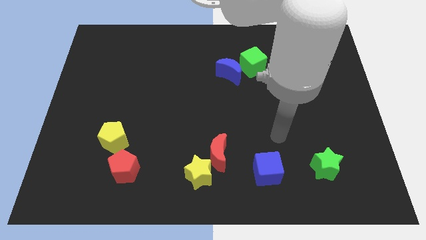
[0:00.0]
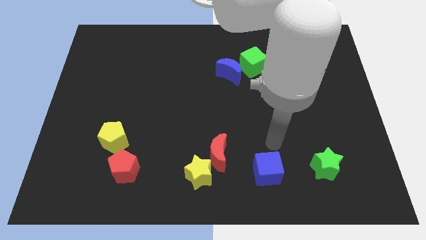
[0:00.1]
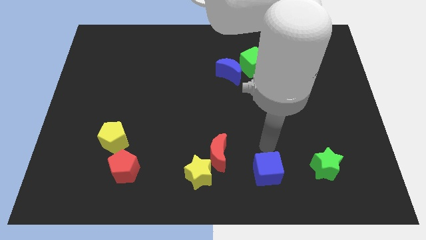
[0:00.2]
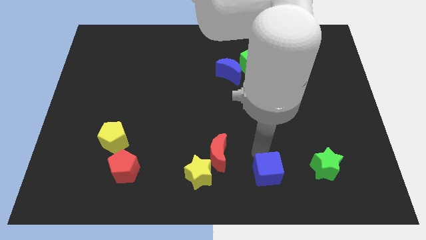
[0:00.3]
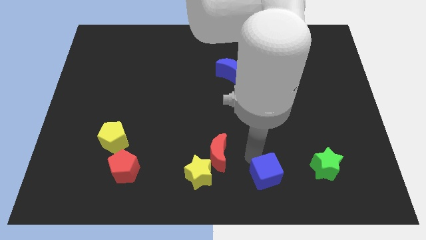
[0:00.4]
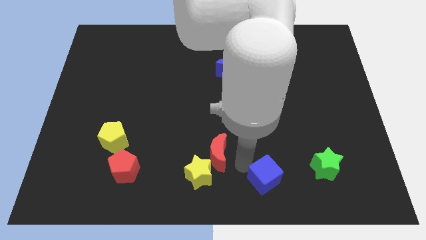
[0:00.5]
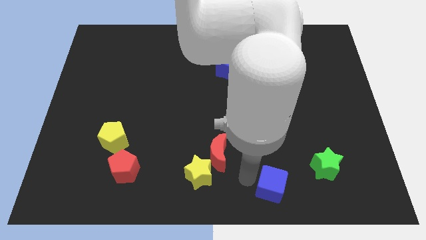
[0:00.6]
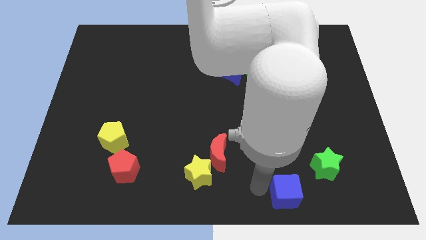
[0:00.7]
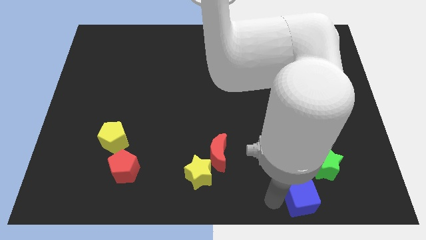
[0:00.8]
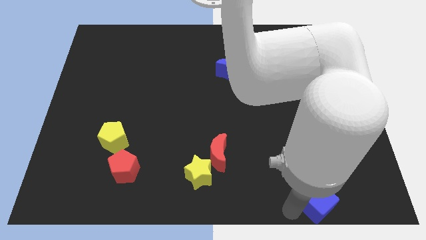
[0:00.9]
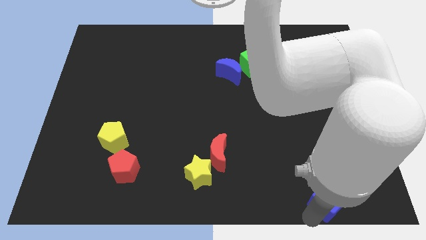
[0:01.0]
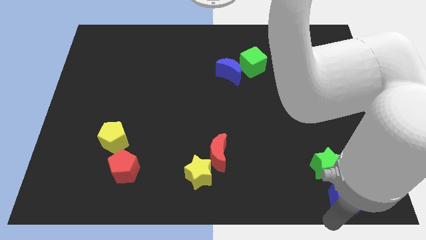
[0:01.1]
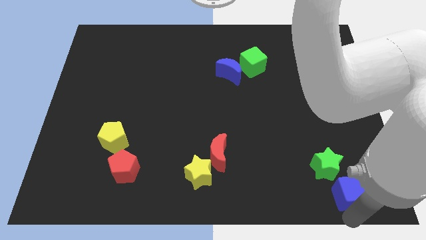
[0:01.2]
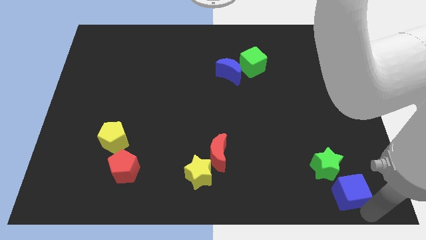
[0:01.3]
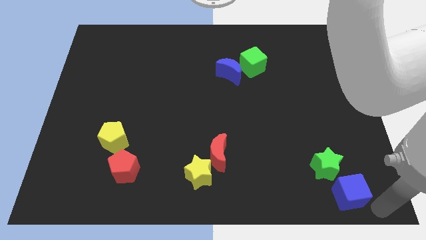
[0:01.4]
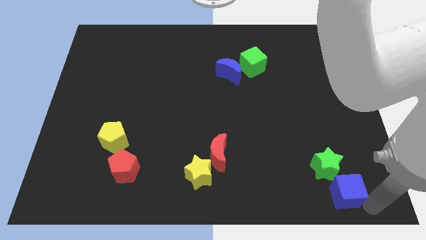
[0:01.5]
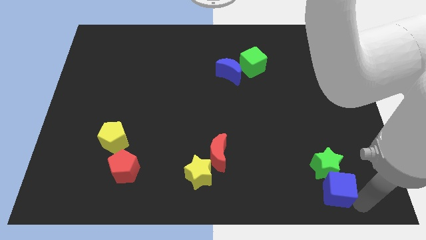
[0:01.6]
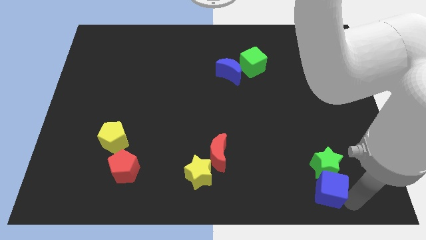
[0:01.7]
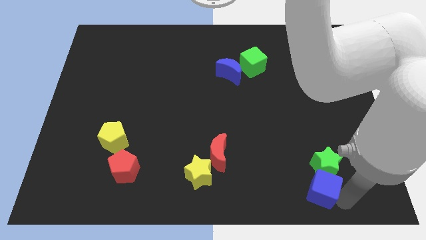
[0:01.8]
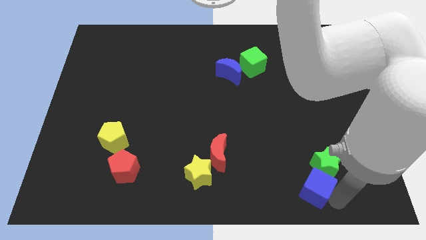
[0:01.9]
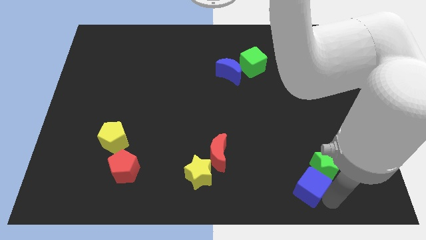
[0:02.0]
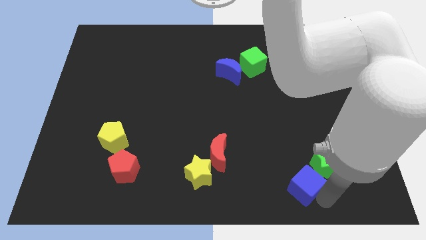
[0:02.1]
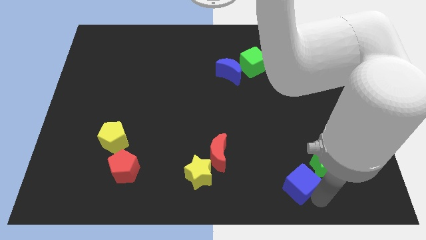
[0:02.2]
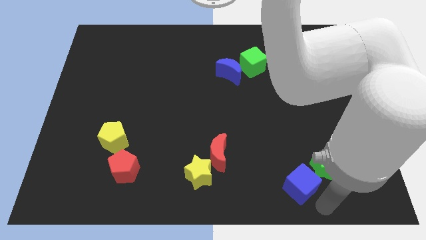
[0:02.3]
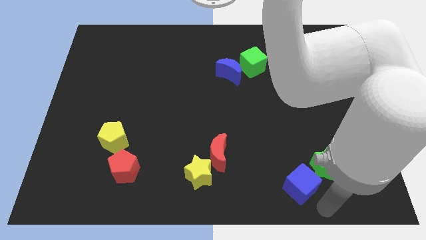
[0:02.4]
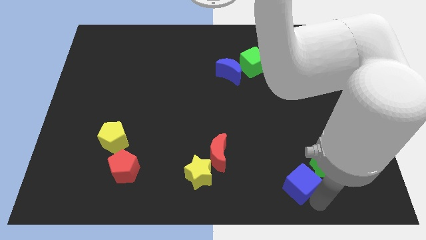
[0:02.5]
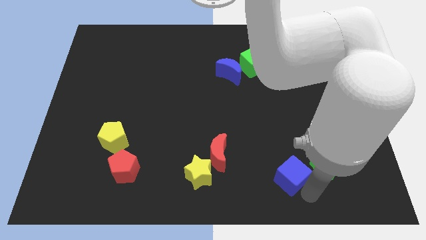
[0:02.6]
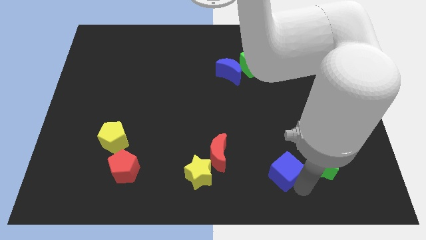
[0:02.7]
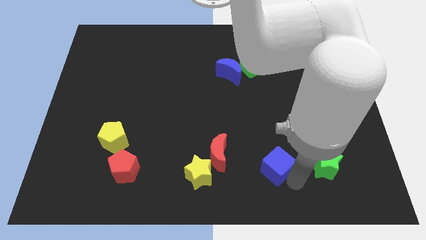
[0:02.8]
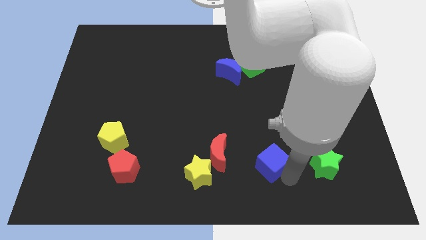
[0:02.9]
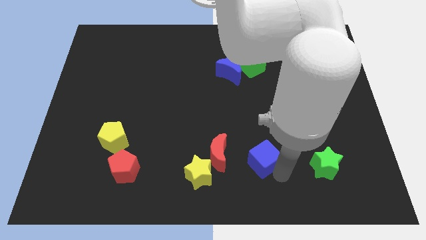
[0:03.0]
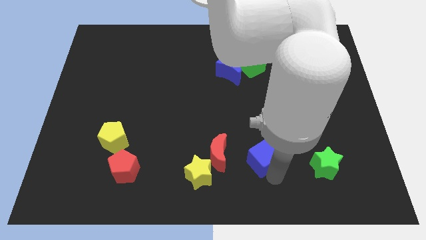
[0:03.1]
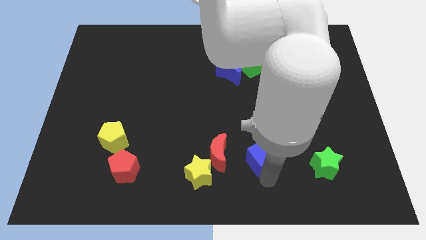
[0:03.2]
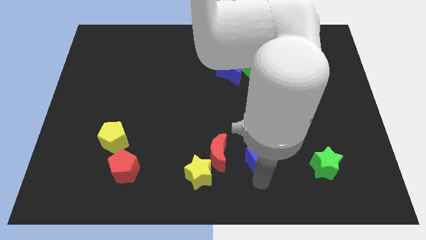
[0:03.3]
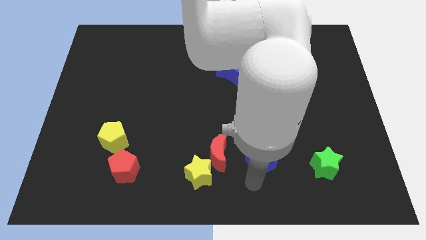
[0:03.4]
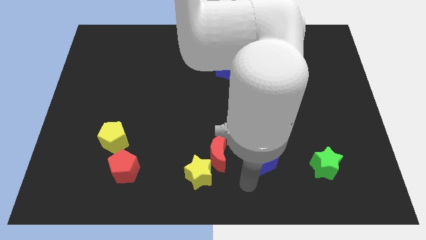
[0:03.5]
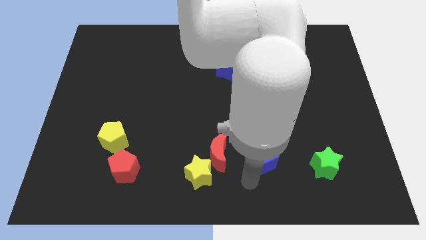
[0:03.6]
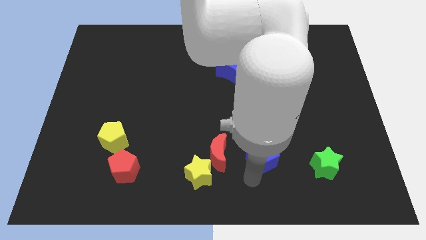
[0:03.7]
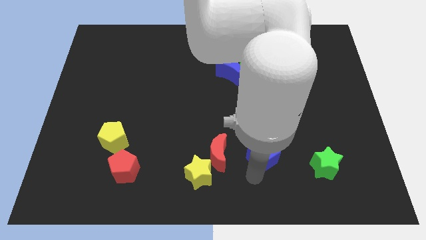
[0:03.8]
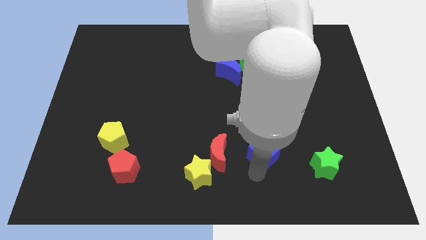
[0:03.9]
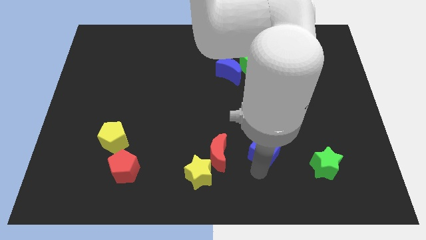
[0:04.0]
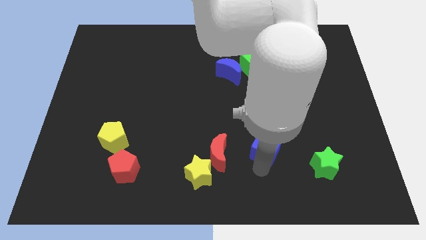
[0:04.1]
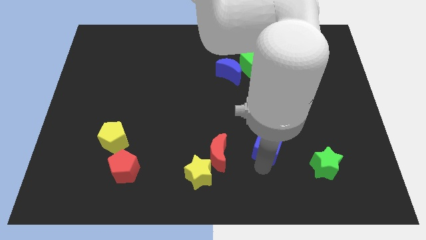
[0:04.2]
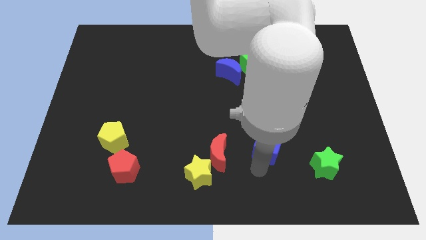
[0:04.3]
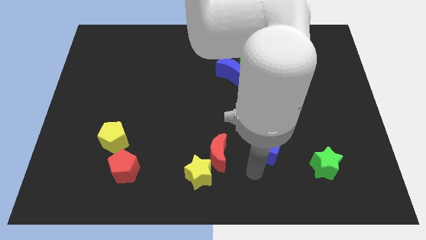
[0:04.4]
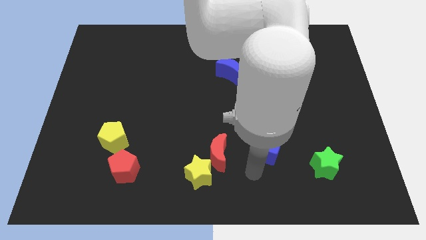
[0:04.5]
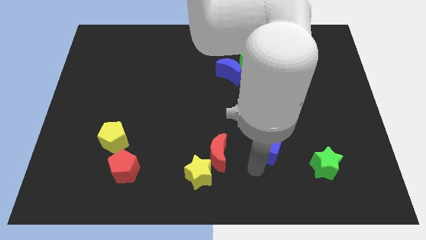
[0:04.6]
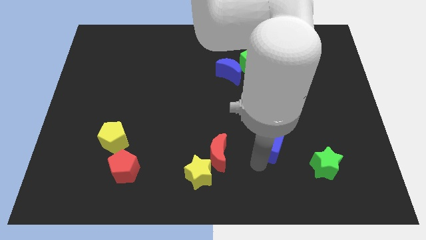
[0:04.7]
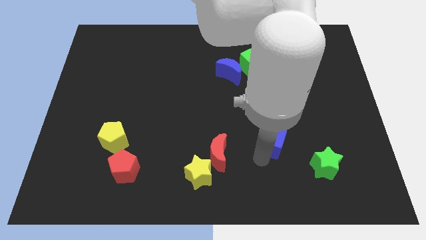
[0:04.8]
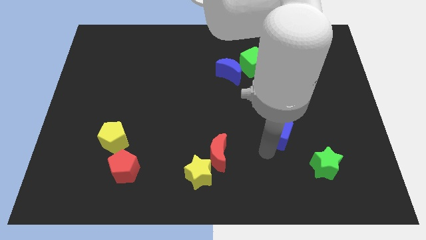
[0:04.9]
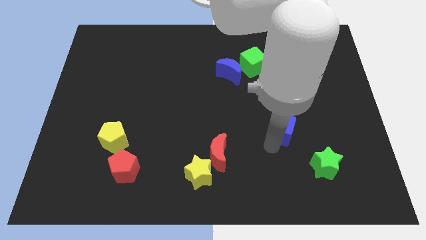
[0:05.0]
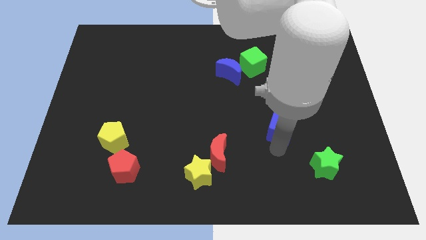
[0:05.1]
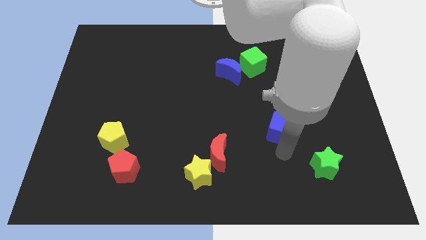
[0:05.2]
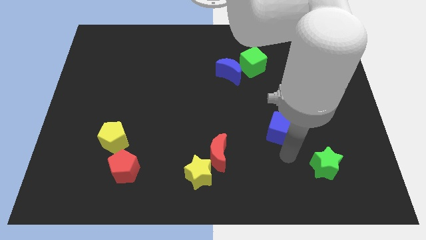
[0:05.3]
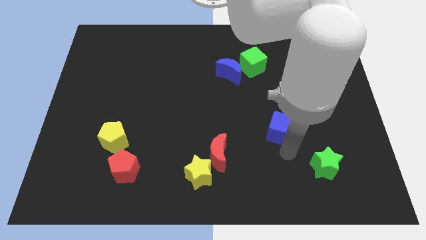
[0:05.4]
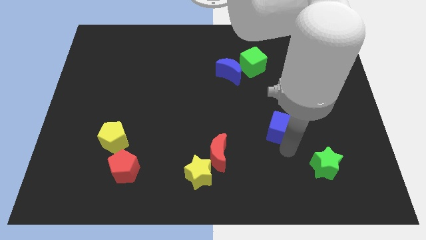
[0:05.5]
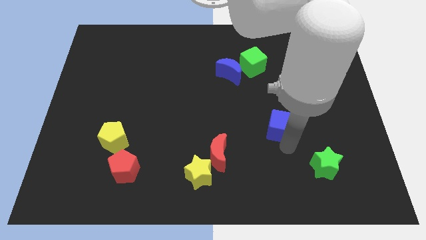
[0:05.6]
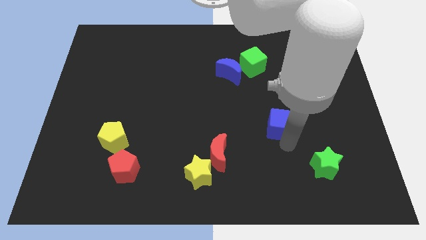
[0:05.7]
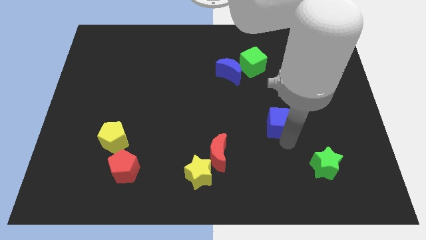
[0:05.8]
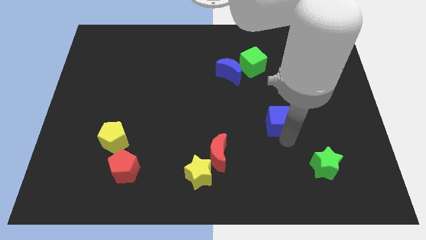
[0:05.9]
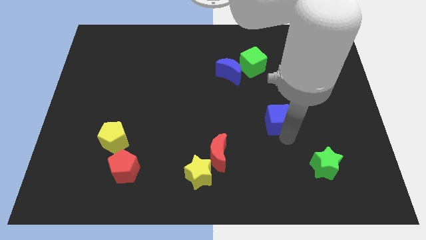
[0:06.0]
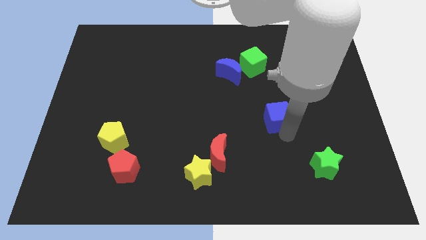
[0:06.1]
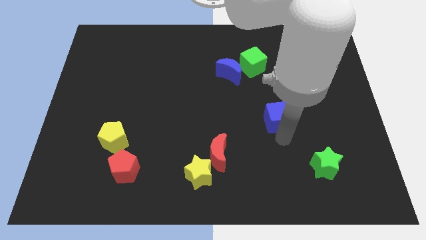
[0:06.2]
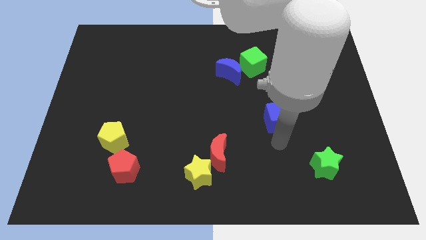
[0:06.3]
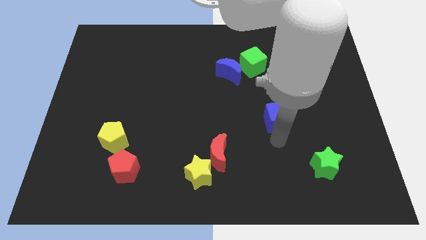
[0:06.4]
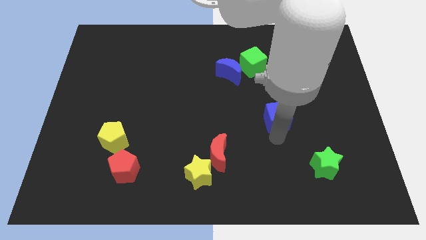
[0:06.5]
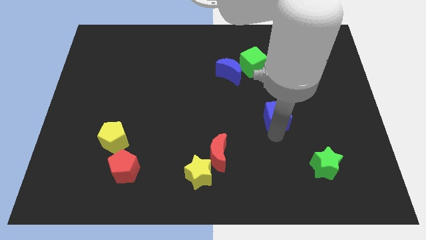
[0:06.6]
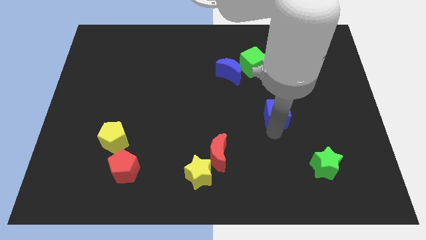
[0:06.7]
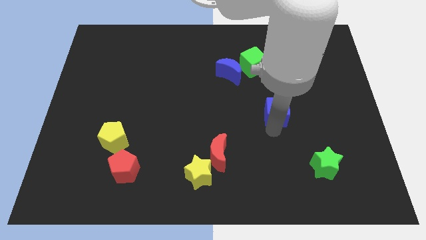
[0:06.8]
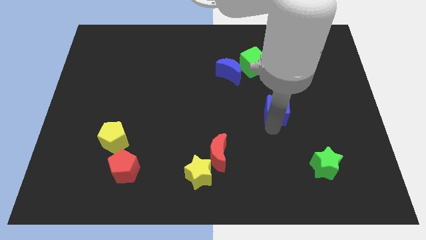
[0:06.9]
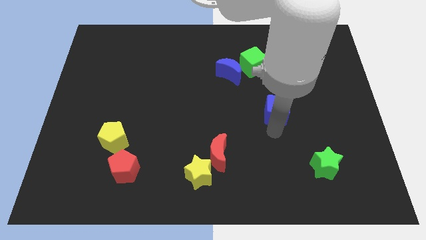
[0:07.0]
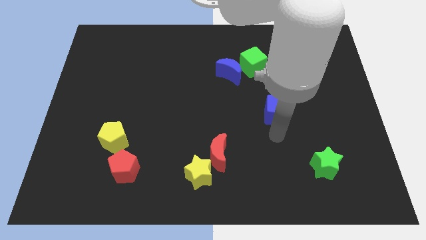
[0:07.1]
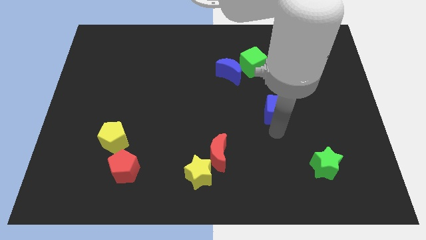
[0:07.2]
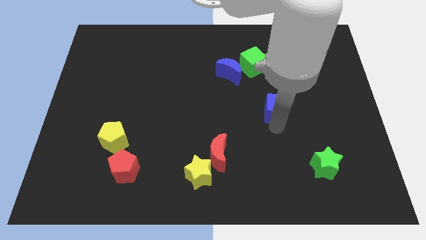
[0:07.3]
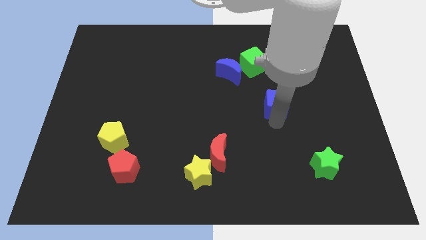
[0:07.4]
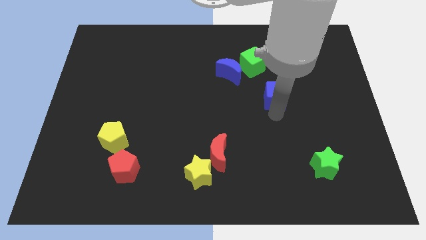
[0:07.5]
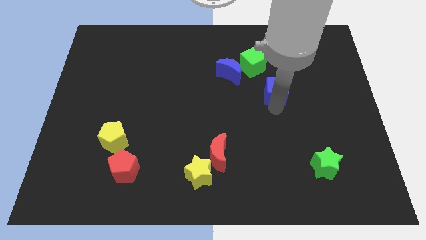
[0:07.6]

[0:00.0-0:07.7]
put the blue cube to the bottom right of the green cube
